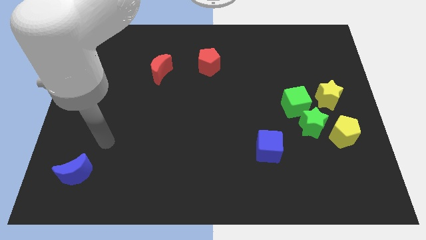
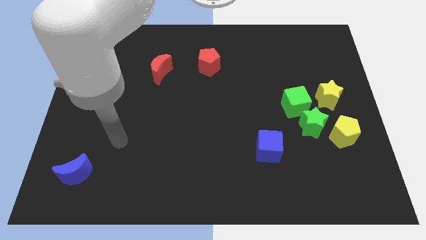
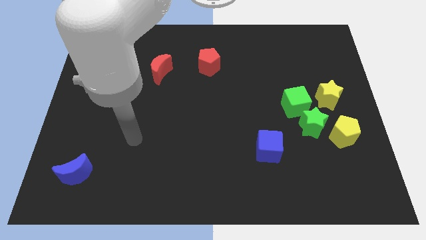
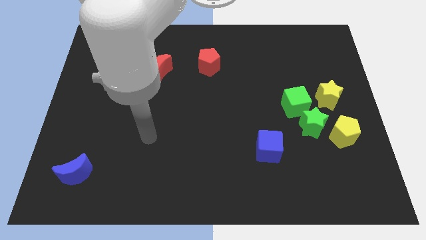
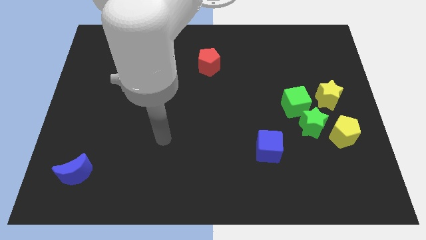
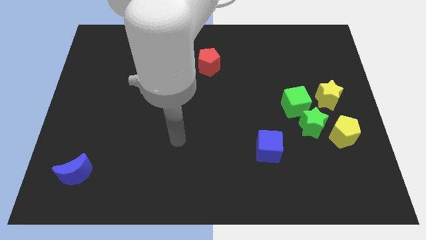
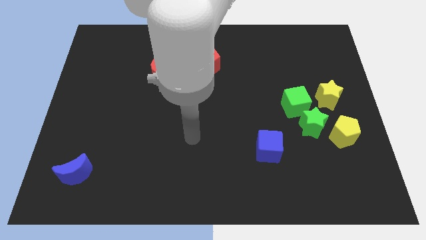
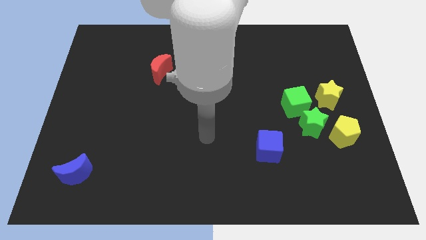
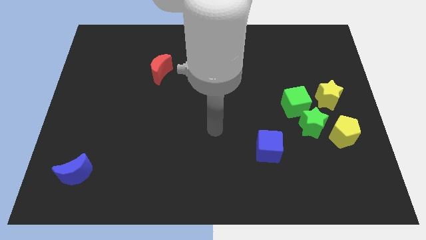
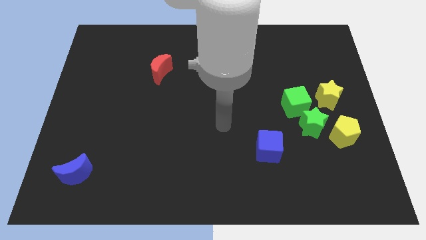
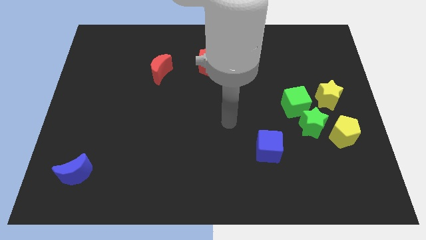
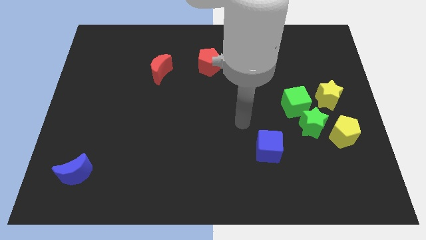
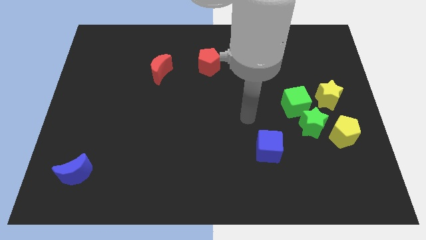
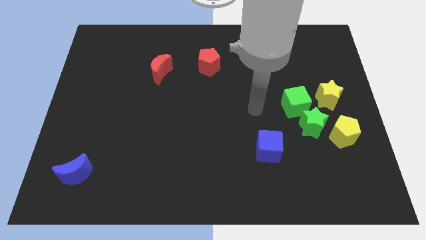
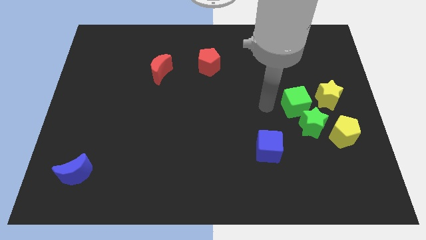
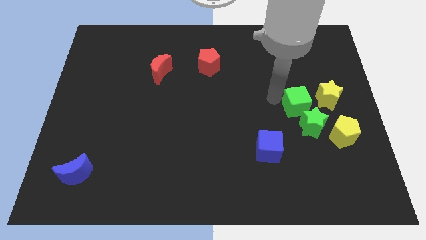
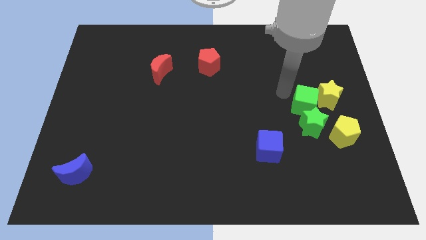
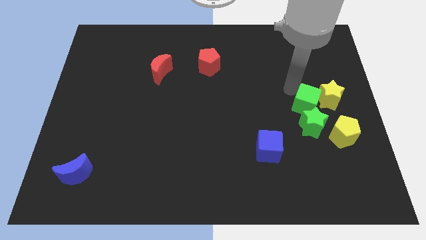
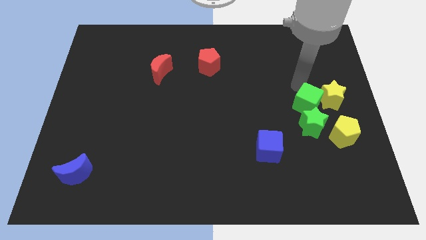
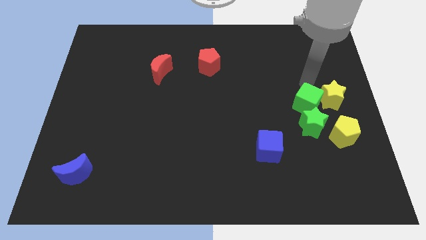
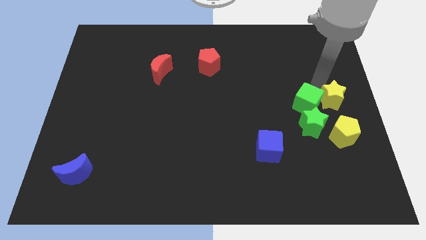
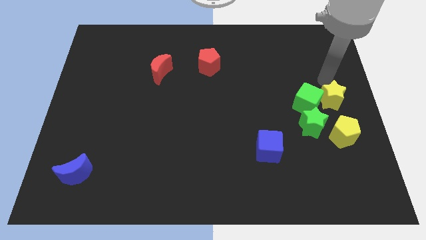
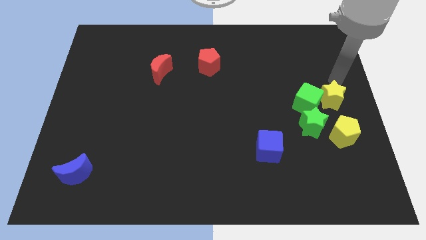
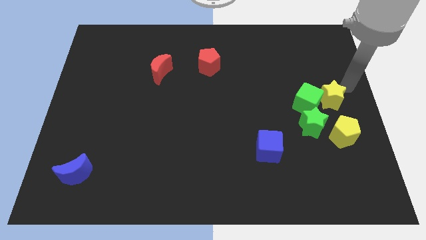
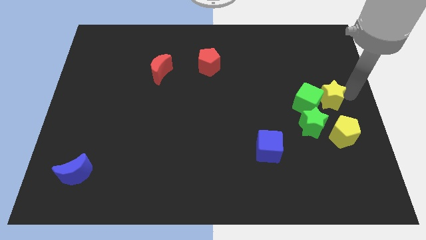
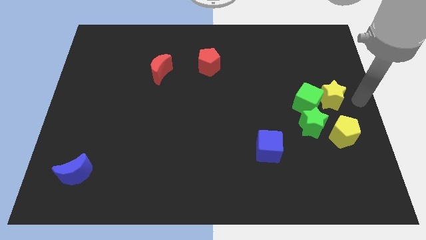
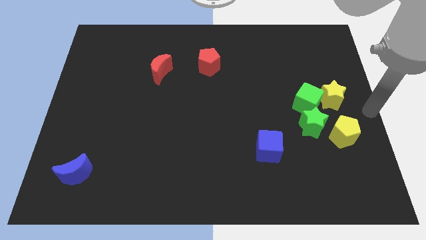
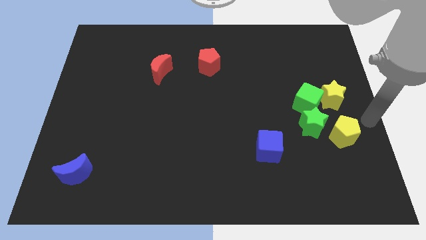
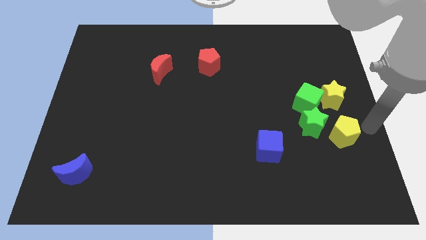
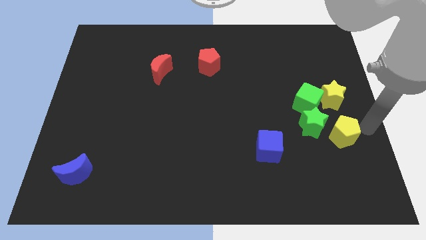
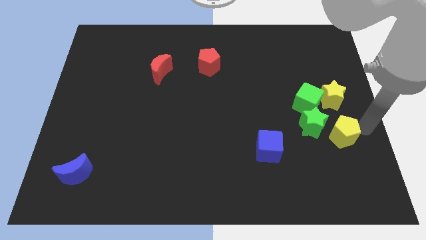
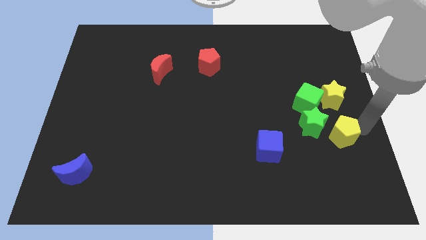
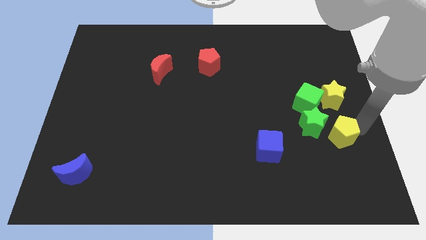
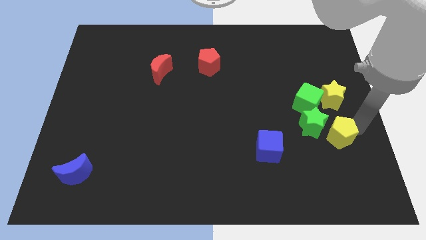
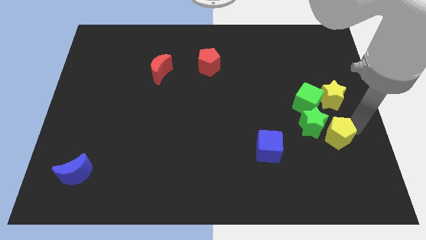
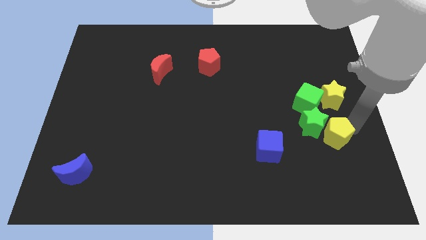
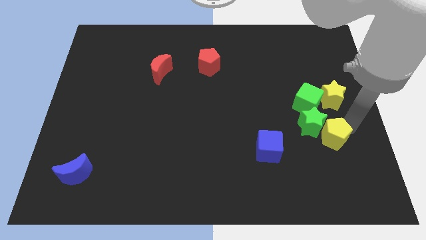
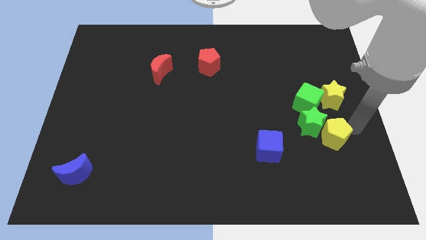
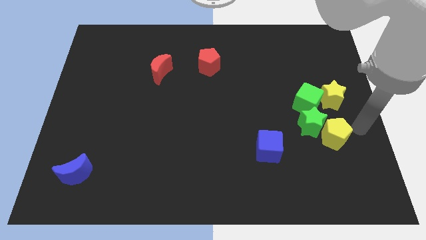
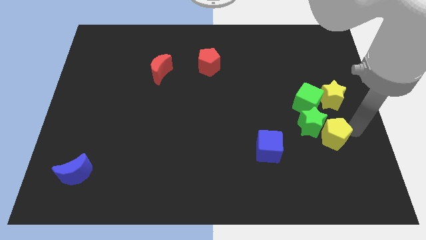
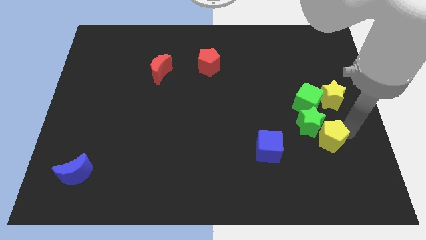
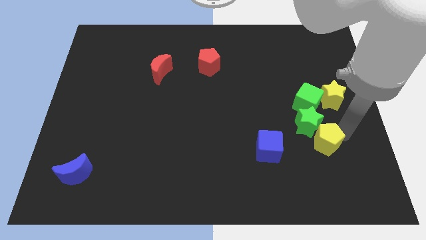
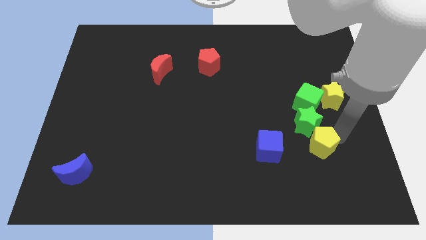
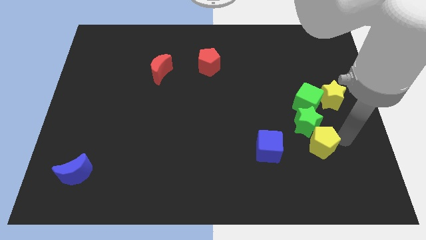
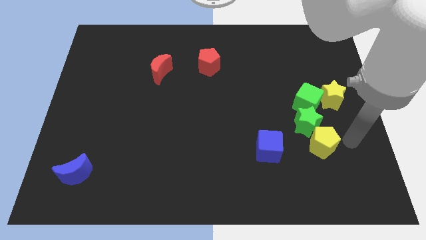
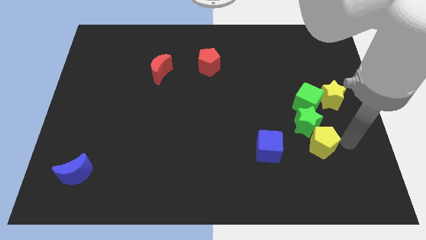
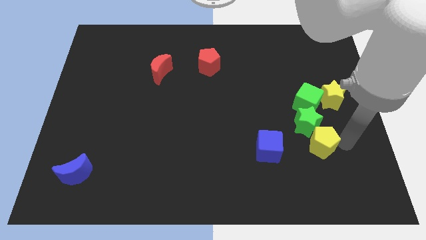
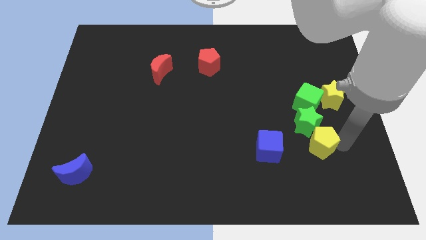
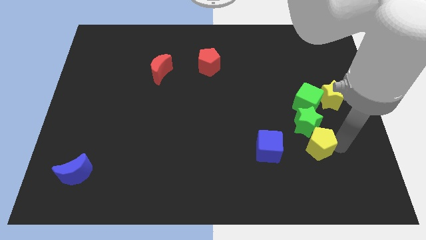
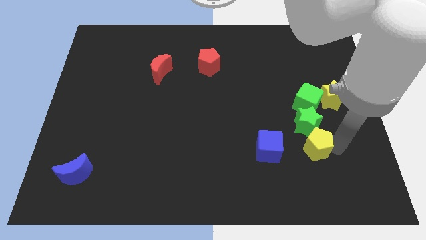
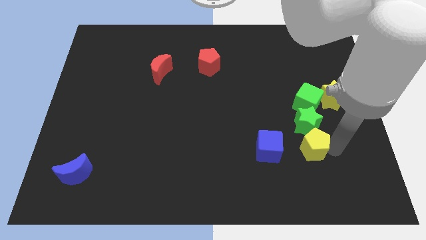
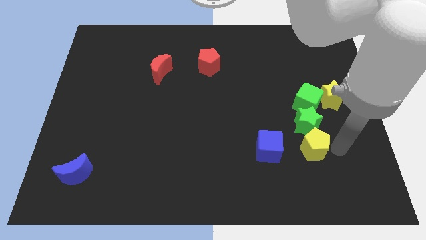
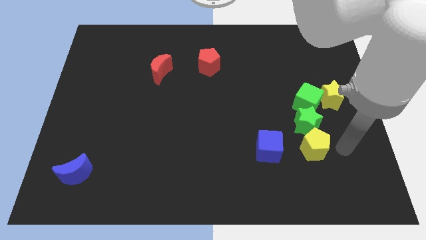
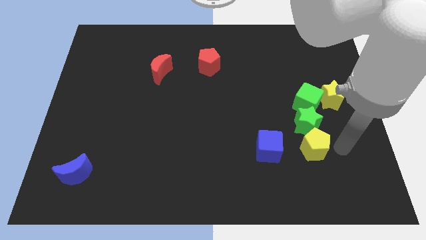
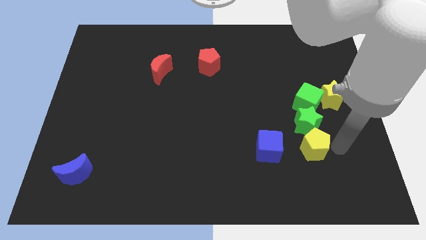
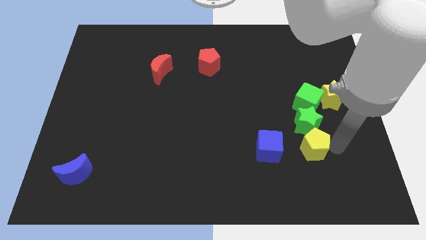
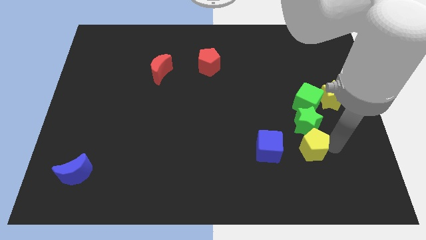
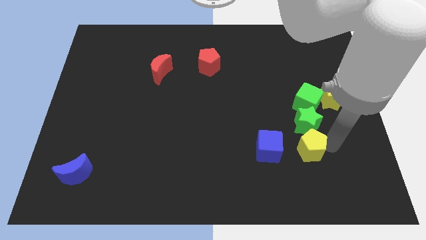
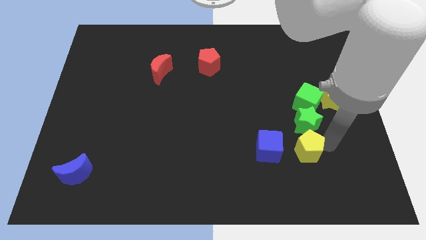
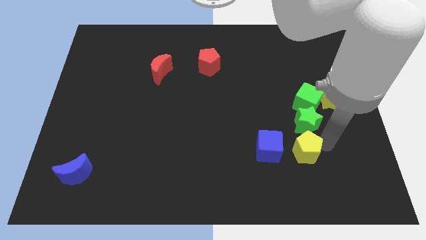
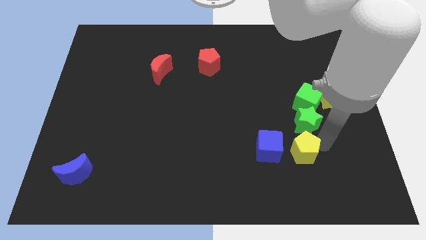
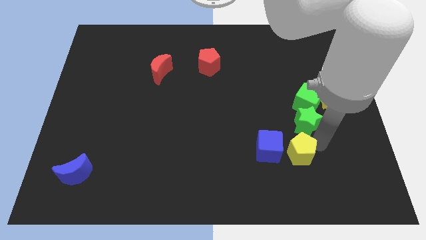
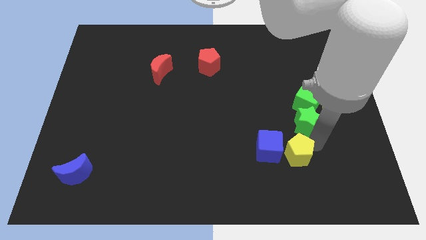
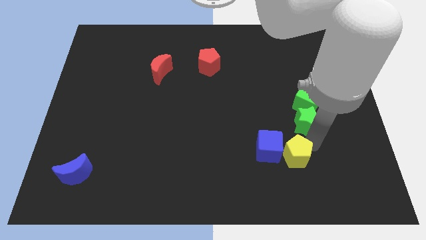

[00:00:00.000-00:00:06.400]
move the yellow pentagon towards the blue cube

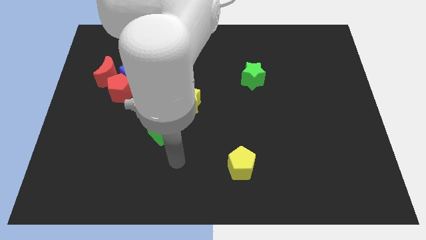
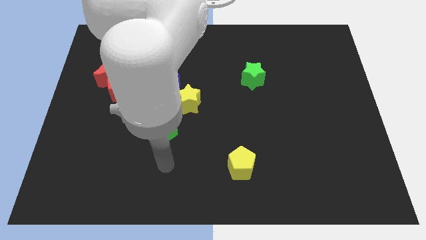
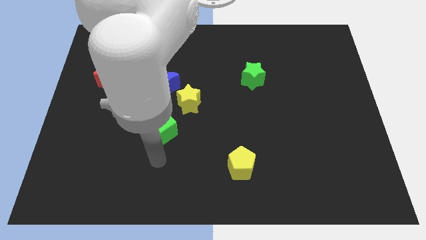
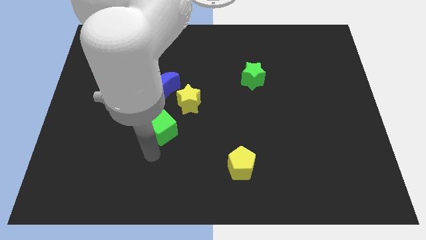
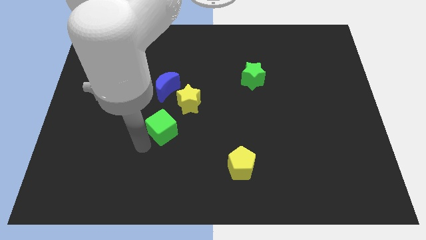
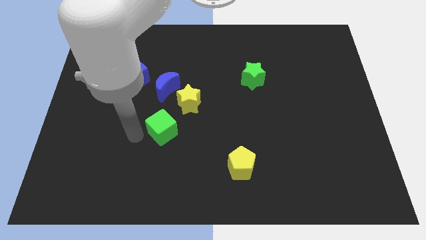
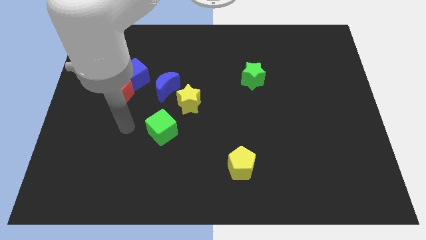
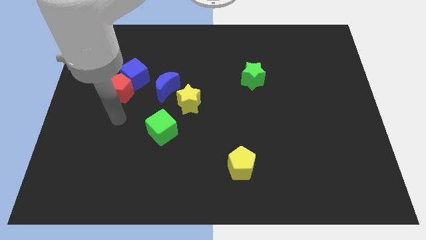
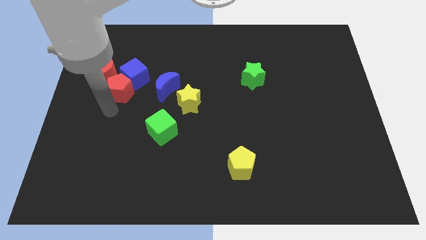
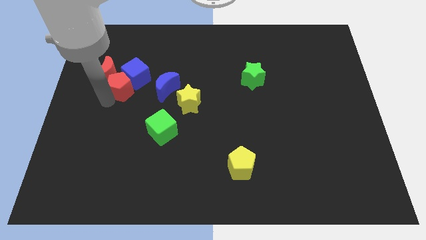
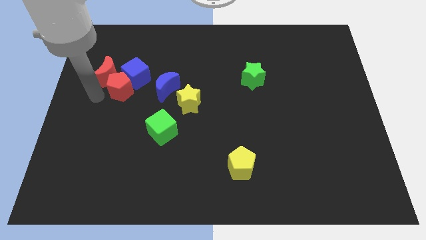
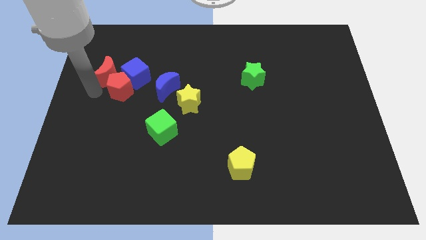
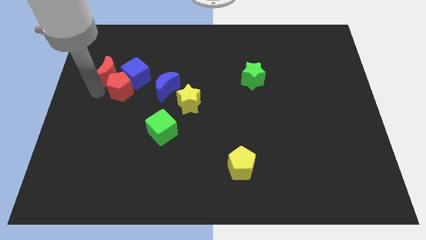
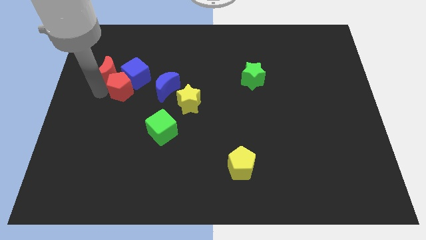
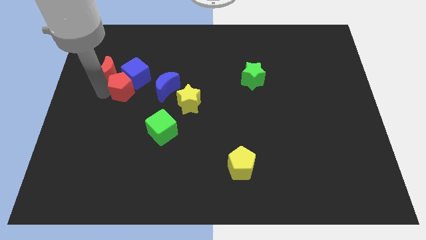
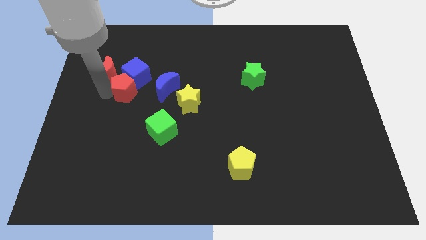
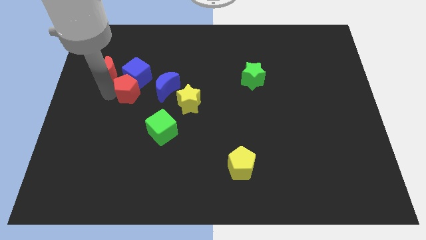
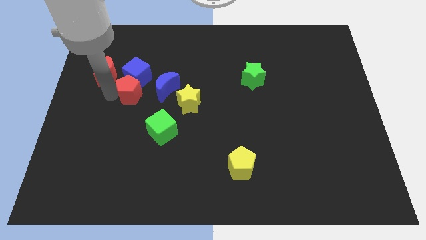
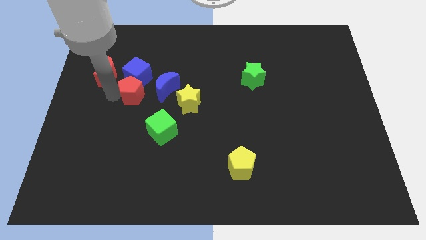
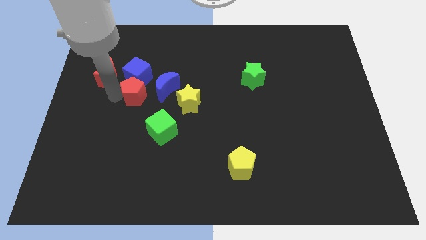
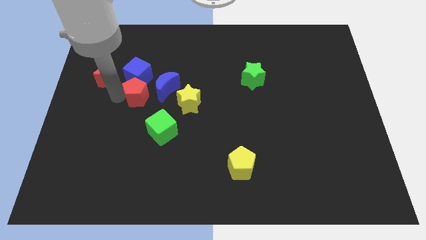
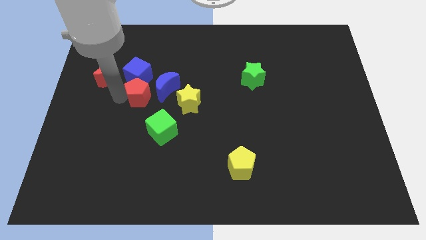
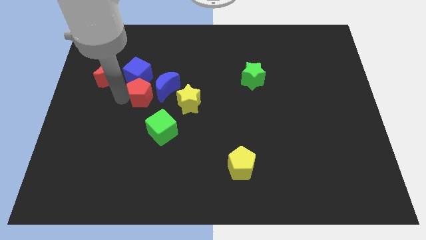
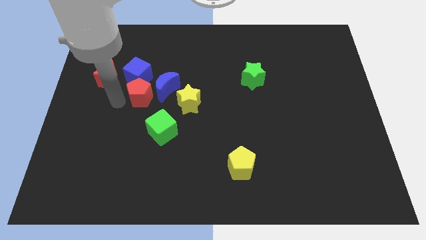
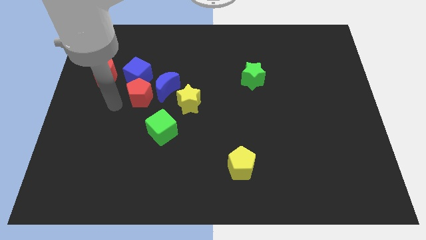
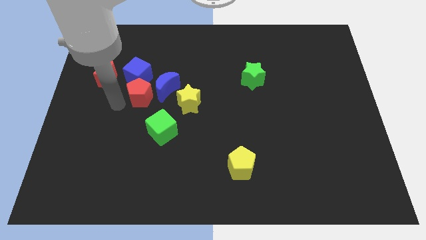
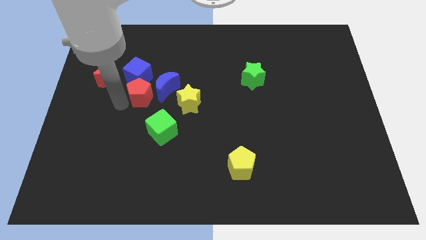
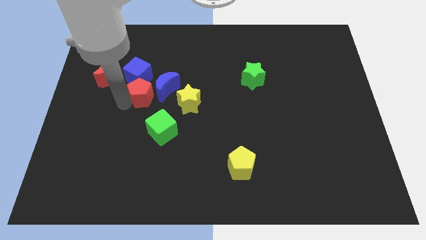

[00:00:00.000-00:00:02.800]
put the red pentagon next to the blue moon
